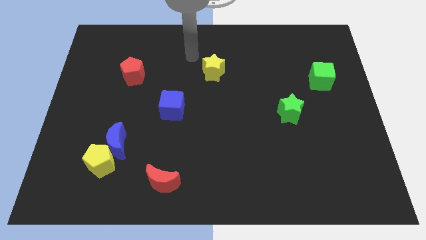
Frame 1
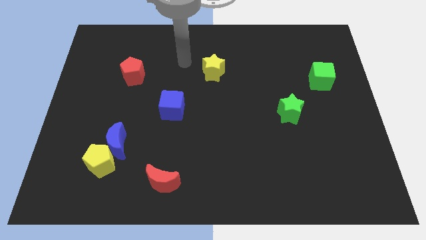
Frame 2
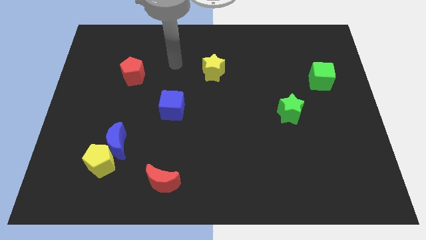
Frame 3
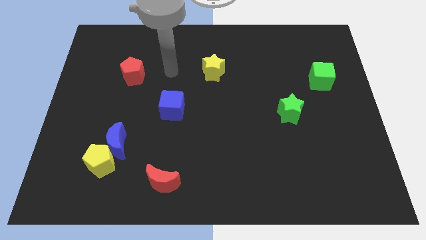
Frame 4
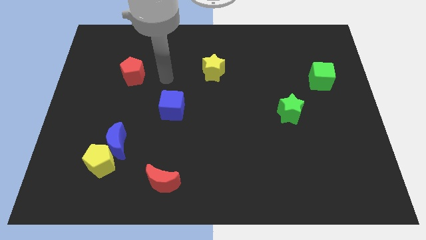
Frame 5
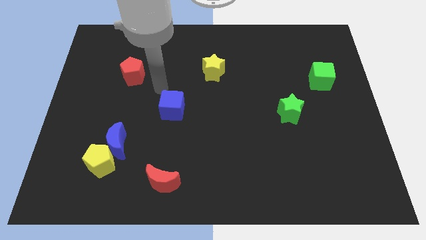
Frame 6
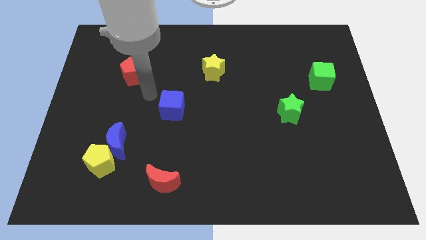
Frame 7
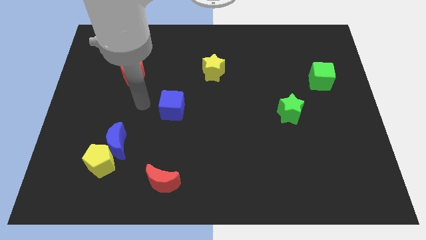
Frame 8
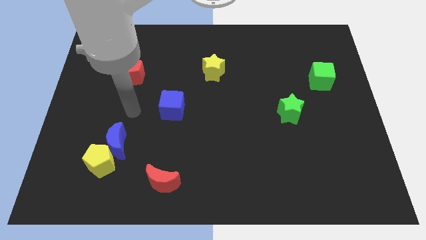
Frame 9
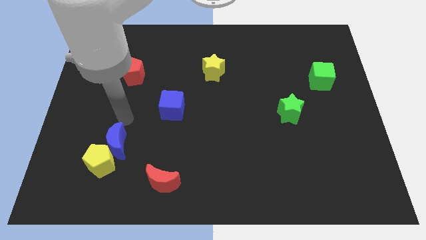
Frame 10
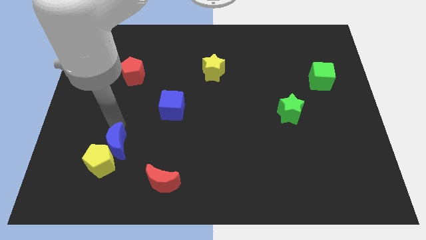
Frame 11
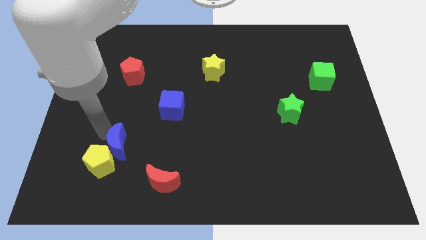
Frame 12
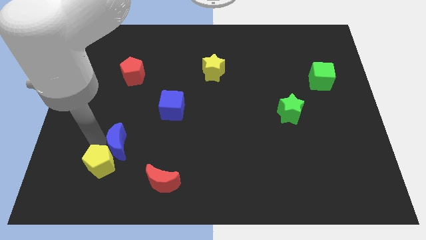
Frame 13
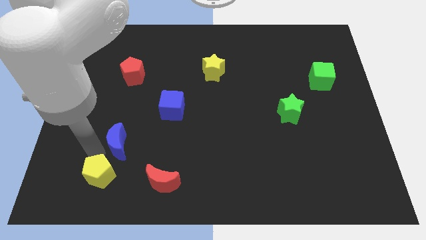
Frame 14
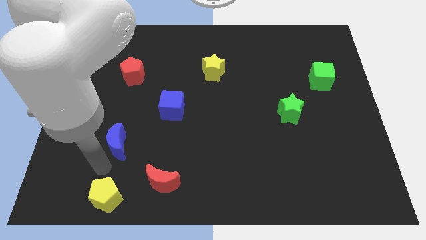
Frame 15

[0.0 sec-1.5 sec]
move the blue moon away from the yellow pentagon

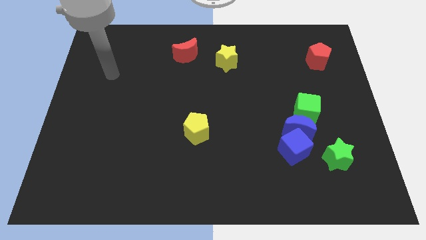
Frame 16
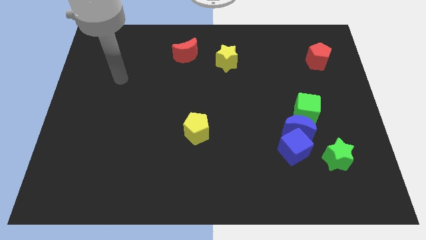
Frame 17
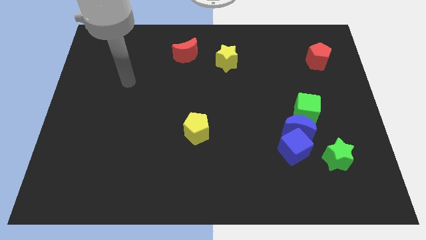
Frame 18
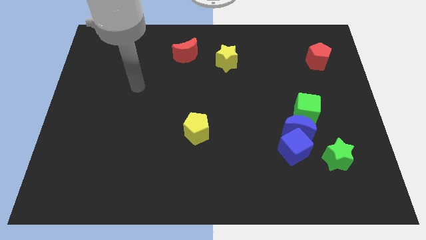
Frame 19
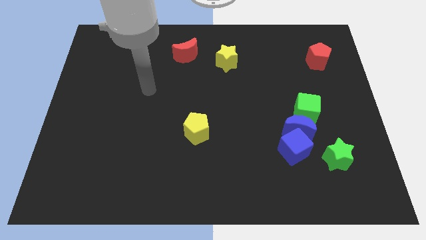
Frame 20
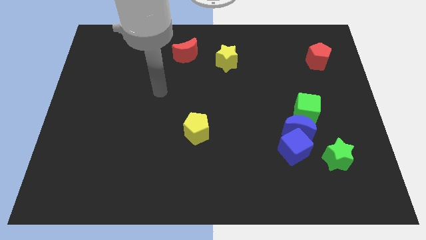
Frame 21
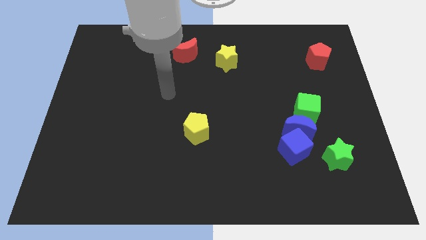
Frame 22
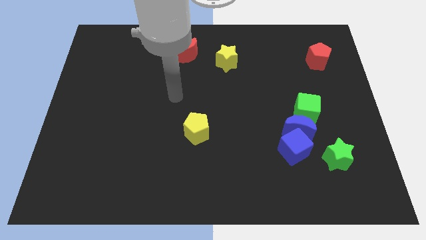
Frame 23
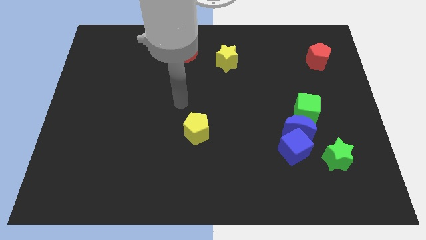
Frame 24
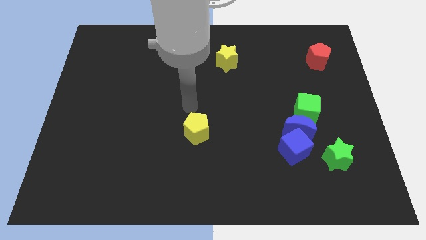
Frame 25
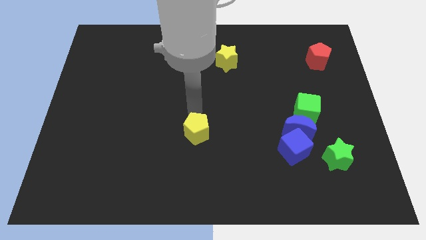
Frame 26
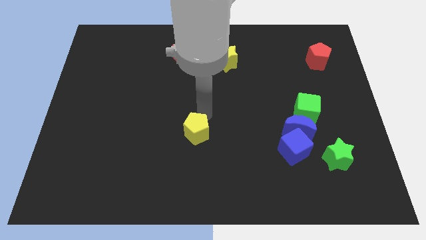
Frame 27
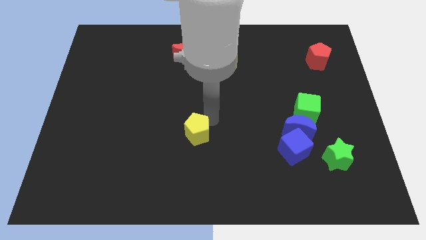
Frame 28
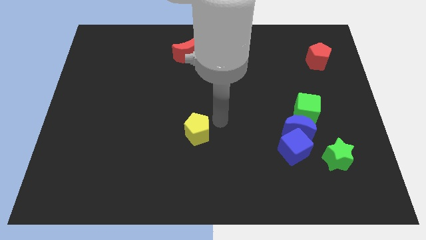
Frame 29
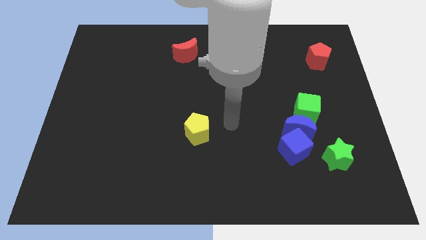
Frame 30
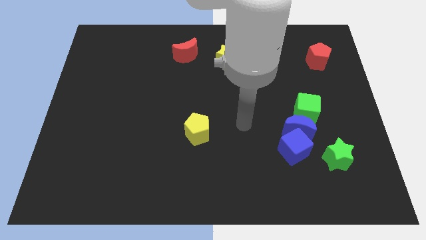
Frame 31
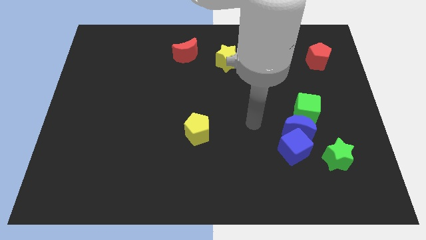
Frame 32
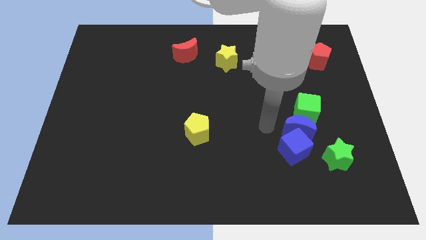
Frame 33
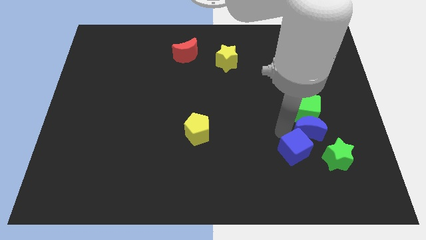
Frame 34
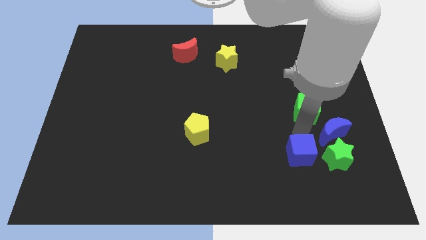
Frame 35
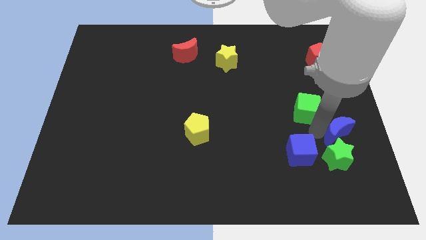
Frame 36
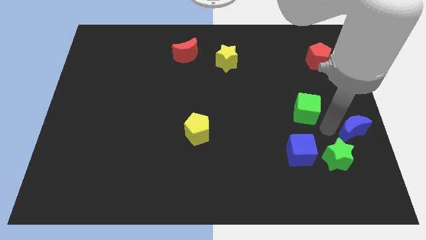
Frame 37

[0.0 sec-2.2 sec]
separate the green cube from the blue moon

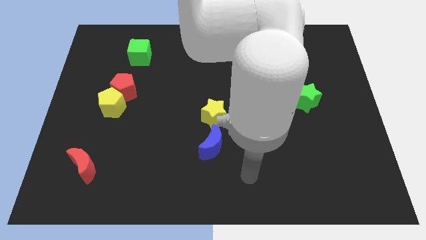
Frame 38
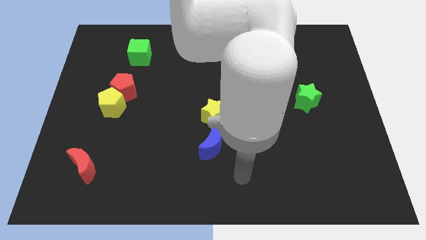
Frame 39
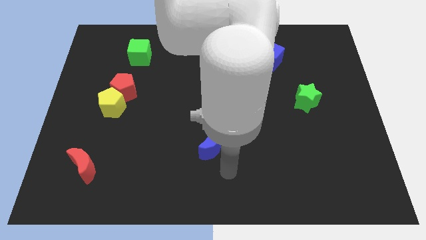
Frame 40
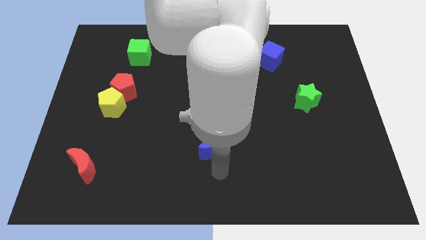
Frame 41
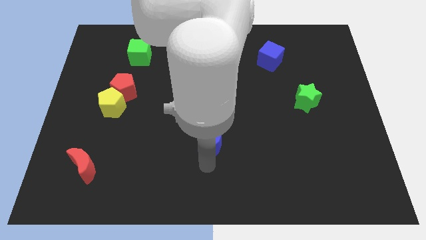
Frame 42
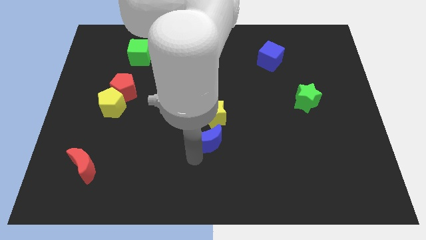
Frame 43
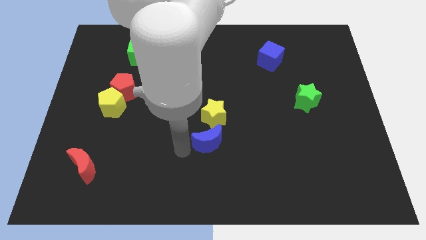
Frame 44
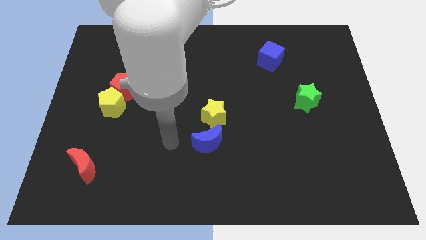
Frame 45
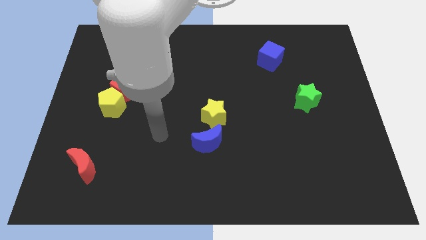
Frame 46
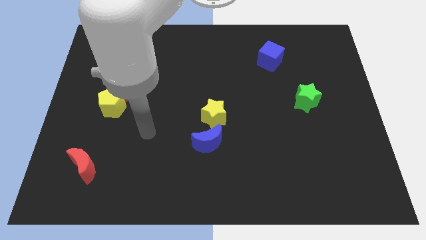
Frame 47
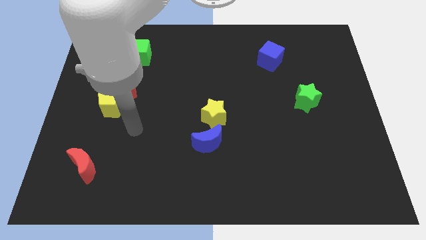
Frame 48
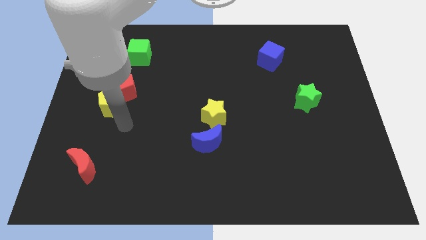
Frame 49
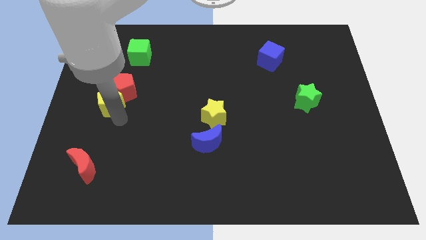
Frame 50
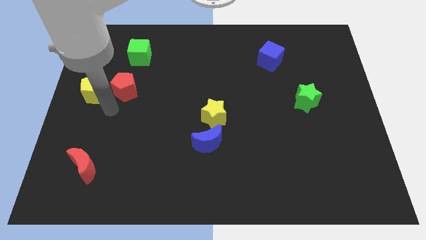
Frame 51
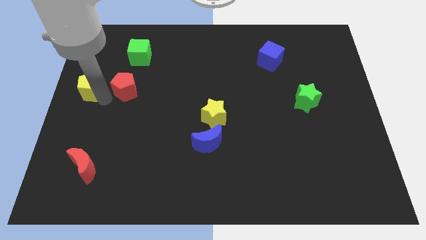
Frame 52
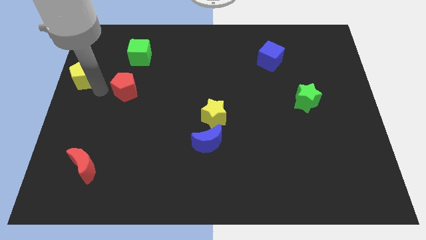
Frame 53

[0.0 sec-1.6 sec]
pull the red pentagon apart from the yellow pentagon

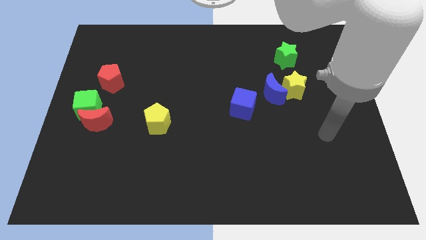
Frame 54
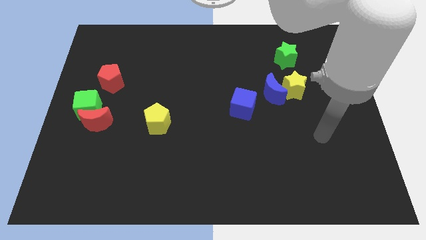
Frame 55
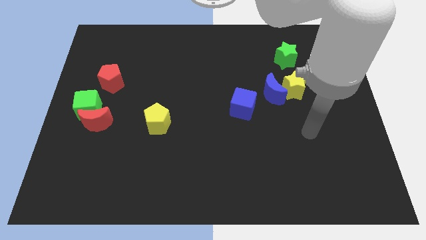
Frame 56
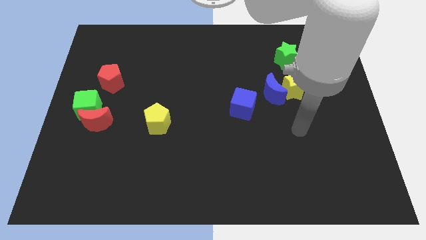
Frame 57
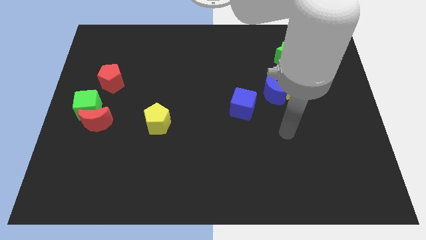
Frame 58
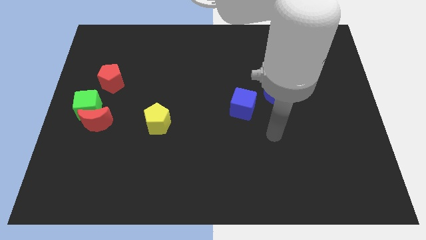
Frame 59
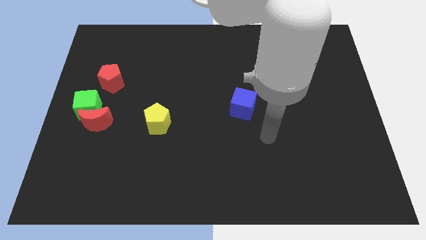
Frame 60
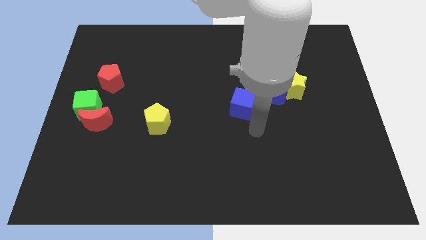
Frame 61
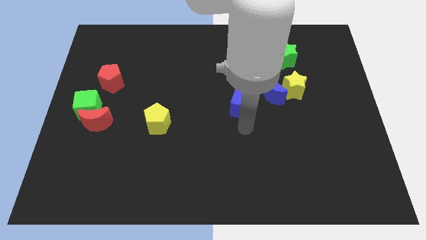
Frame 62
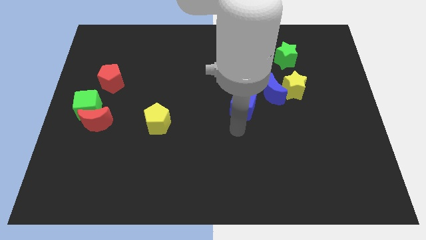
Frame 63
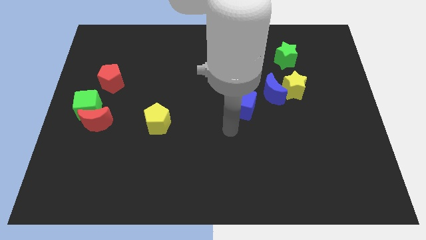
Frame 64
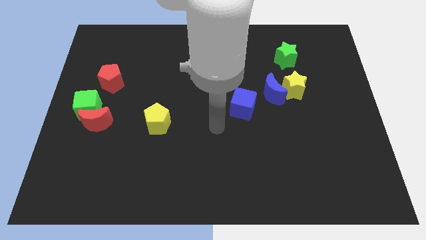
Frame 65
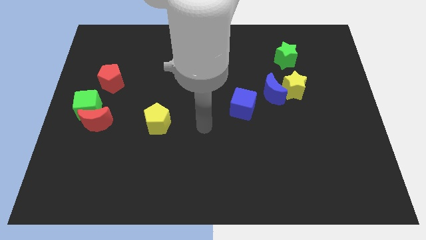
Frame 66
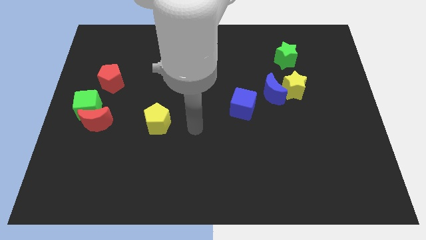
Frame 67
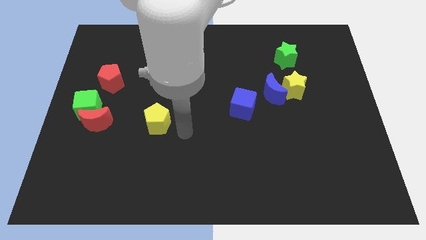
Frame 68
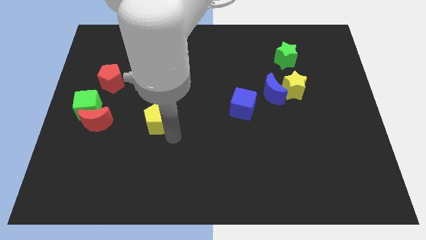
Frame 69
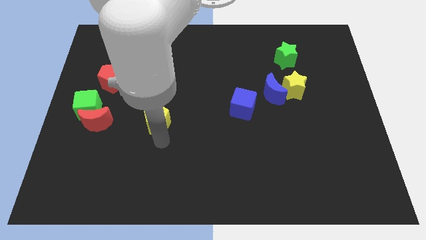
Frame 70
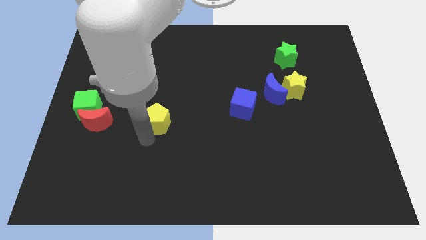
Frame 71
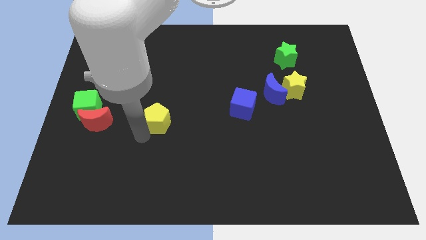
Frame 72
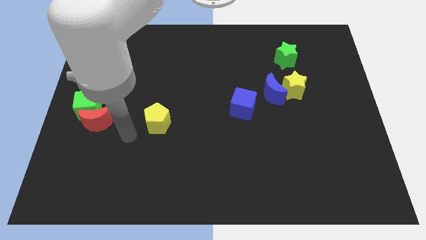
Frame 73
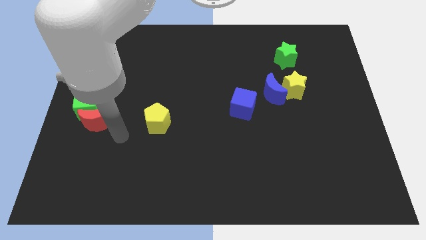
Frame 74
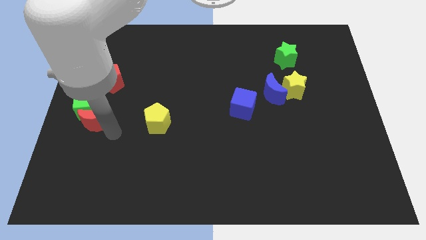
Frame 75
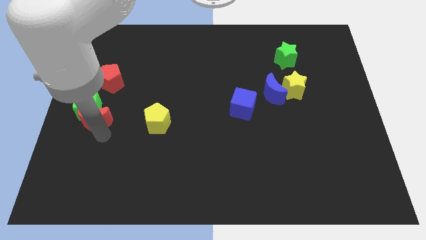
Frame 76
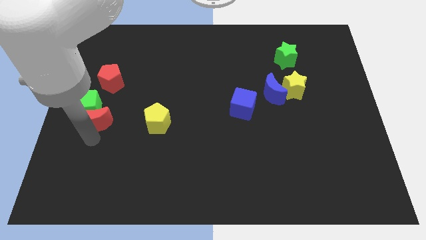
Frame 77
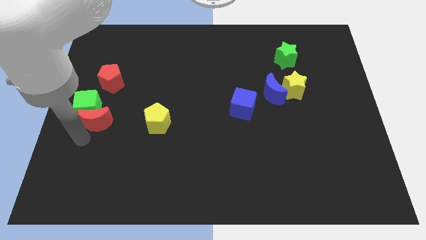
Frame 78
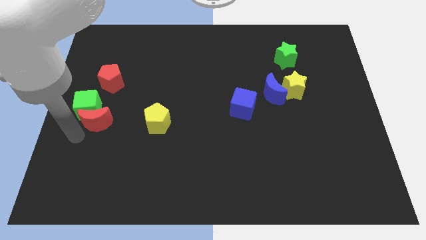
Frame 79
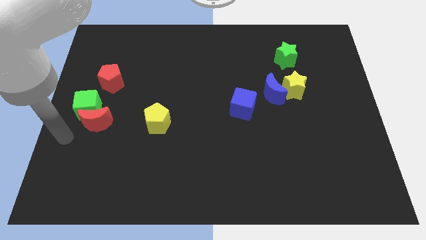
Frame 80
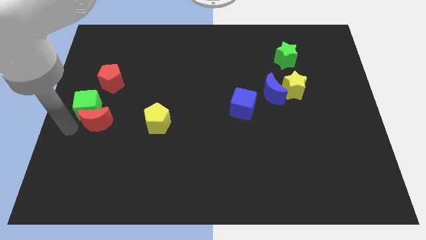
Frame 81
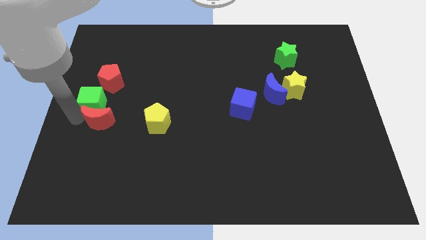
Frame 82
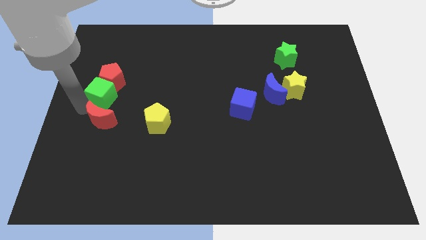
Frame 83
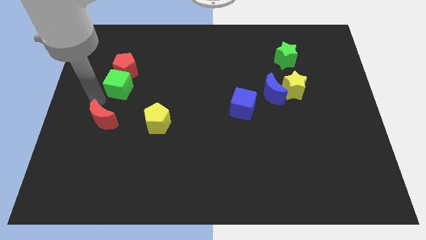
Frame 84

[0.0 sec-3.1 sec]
move the red moon away from the green cube

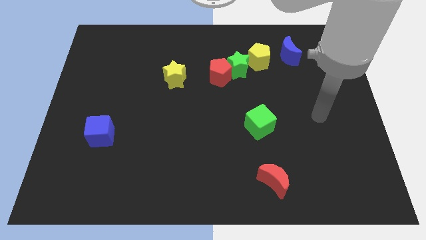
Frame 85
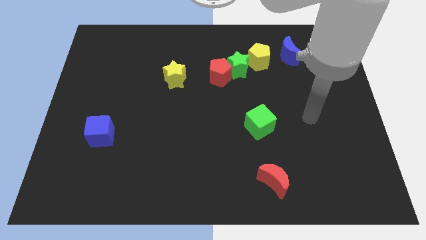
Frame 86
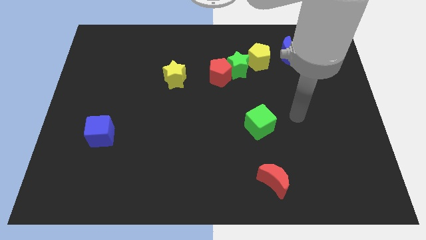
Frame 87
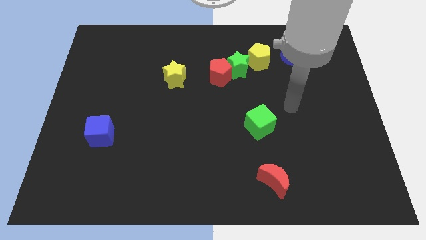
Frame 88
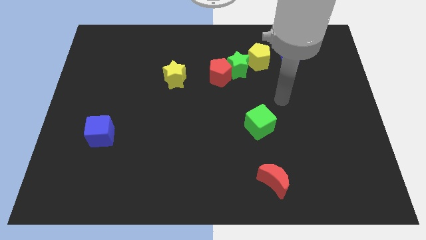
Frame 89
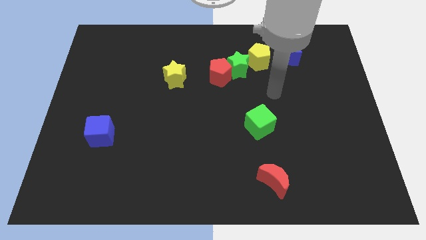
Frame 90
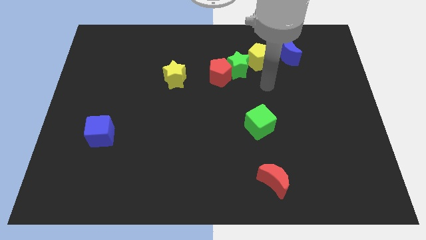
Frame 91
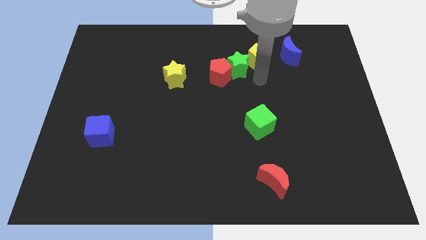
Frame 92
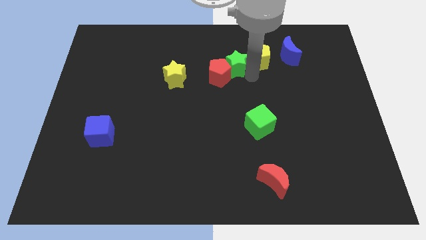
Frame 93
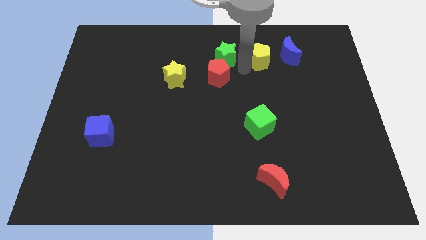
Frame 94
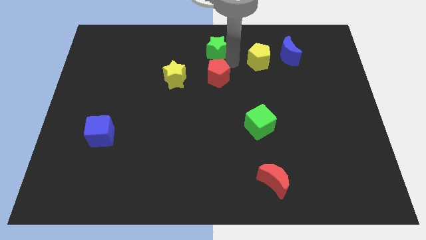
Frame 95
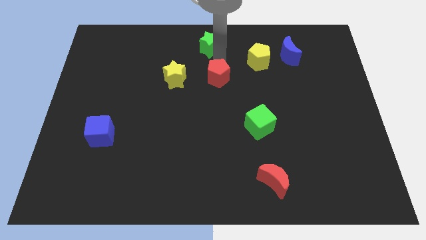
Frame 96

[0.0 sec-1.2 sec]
move the red pentagon away from the green star
